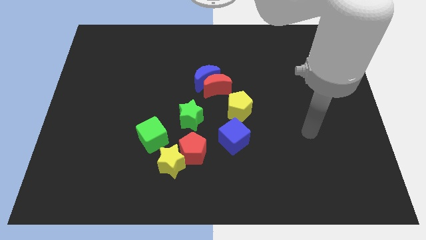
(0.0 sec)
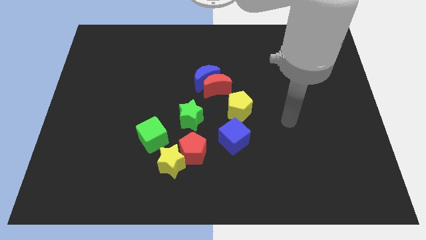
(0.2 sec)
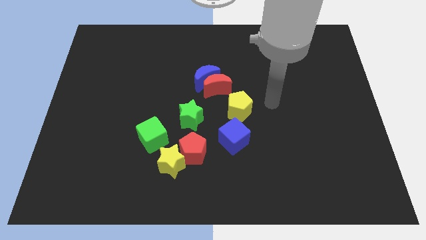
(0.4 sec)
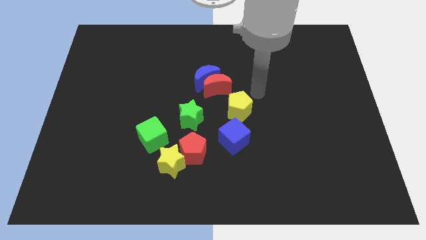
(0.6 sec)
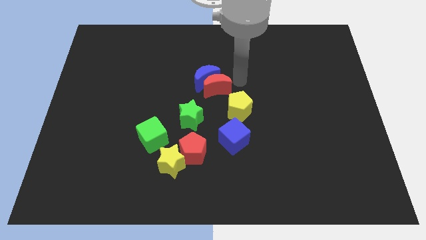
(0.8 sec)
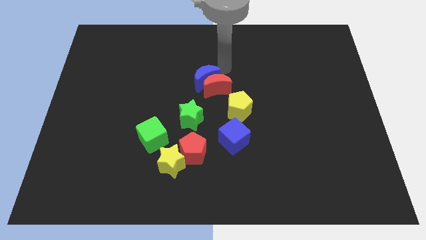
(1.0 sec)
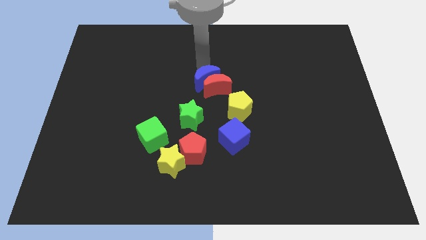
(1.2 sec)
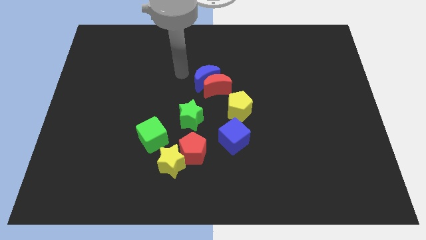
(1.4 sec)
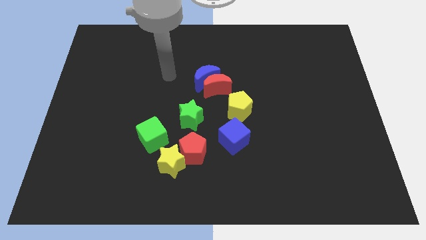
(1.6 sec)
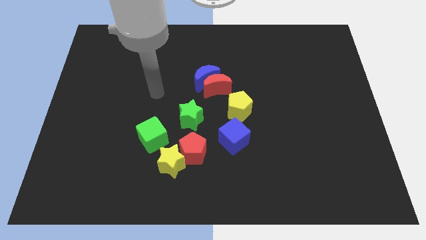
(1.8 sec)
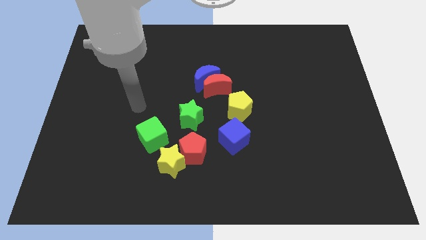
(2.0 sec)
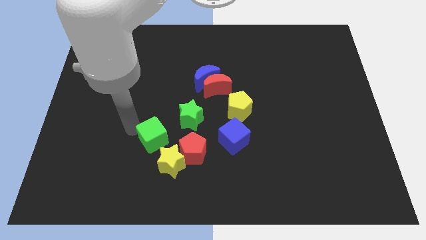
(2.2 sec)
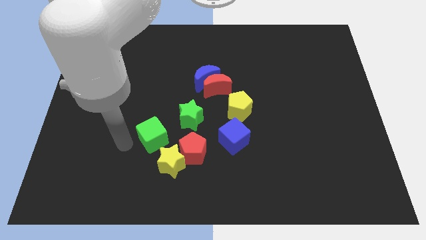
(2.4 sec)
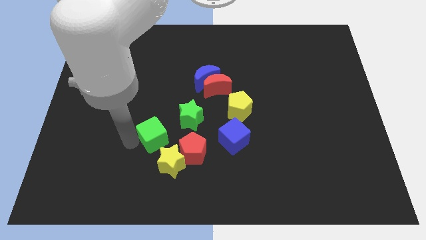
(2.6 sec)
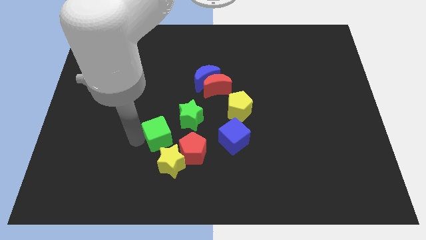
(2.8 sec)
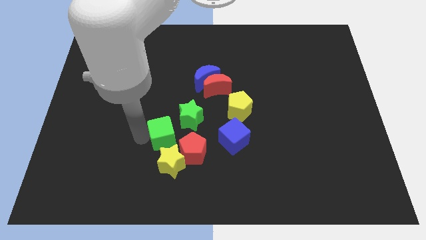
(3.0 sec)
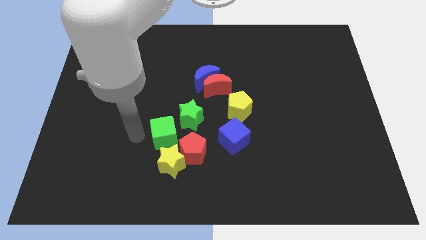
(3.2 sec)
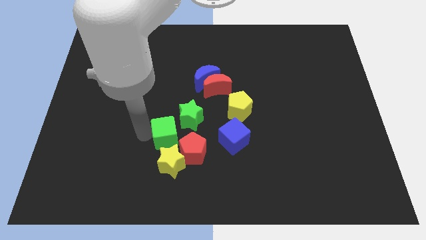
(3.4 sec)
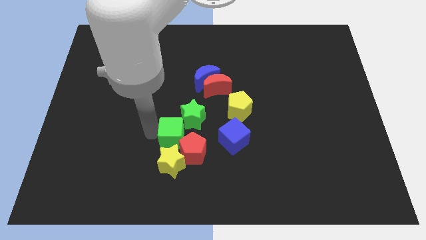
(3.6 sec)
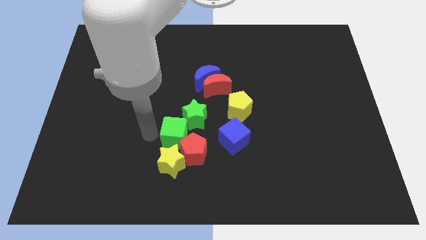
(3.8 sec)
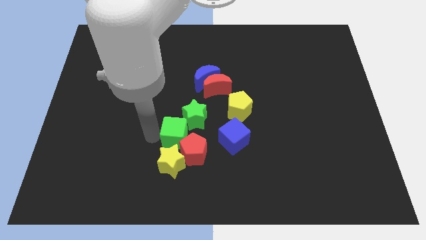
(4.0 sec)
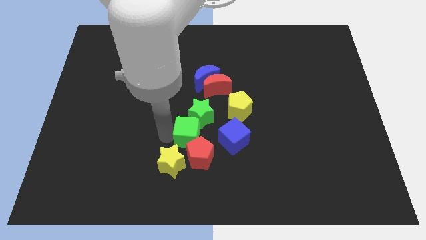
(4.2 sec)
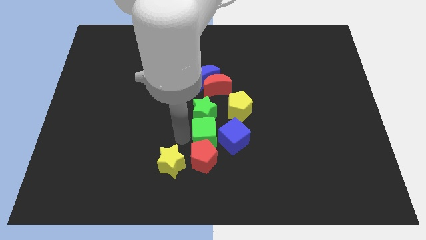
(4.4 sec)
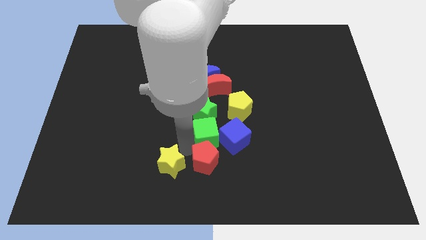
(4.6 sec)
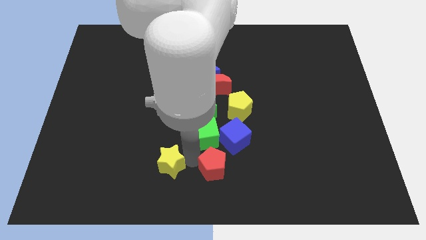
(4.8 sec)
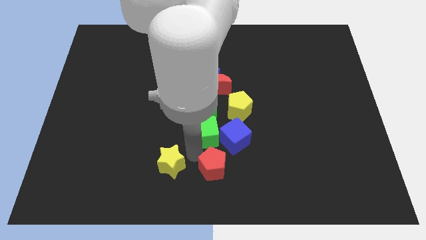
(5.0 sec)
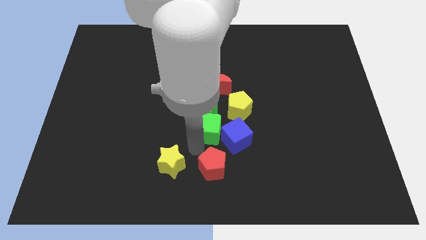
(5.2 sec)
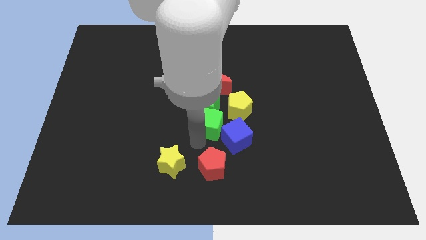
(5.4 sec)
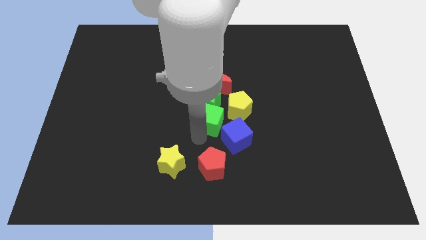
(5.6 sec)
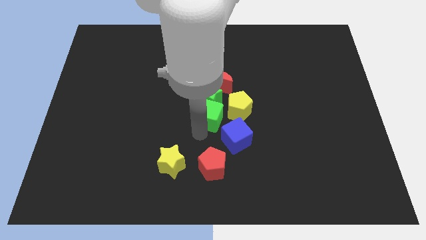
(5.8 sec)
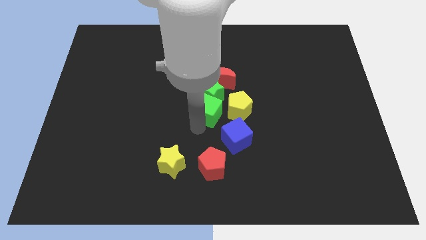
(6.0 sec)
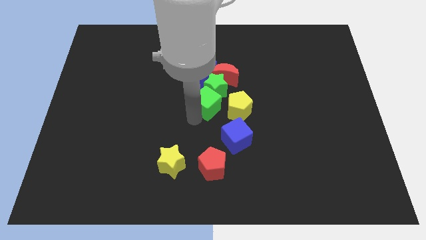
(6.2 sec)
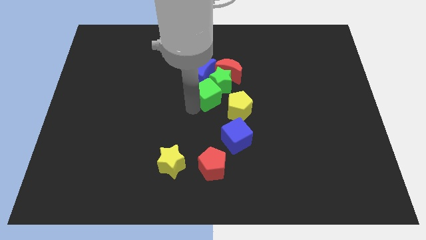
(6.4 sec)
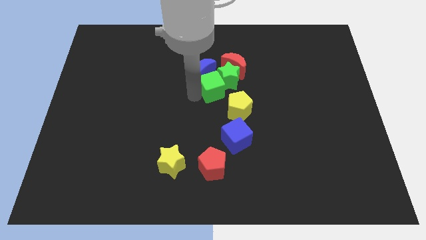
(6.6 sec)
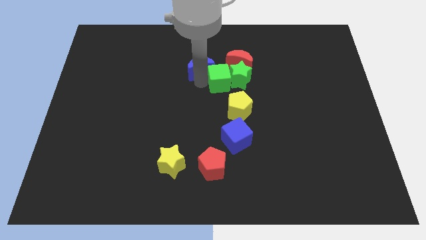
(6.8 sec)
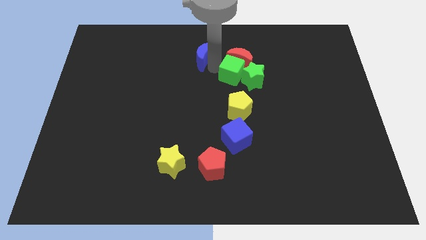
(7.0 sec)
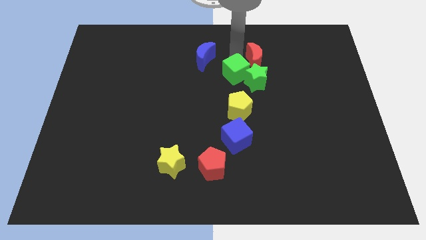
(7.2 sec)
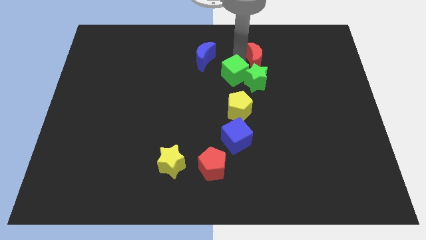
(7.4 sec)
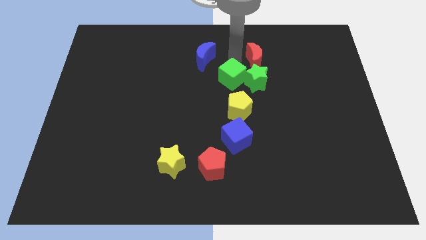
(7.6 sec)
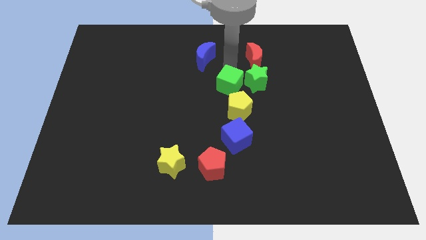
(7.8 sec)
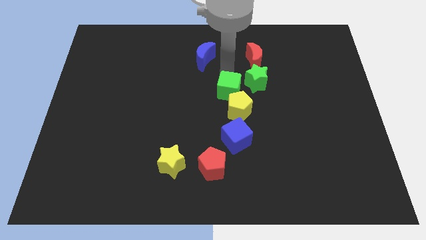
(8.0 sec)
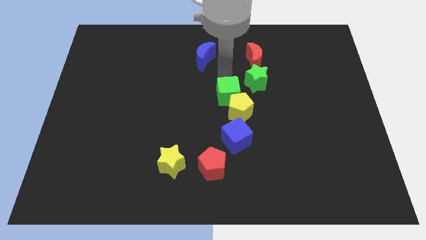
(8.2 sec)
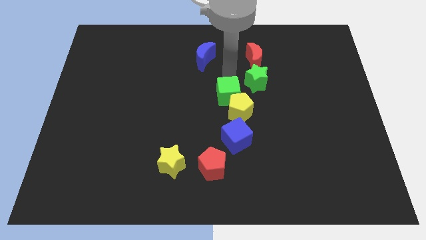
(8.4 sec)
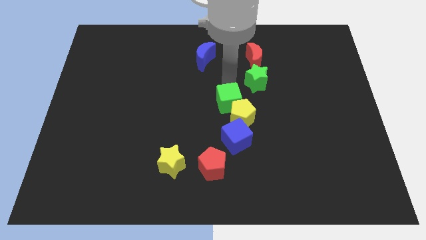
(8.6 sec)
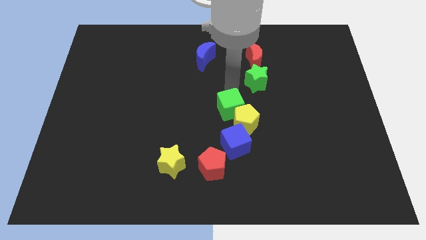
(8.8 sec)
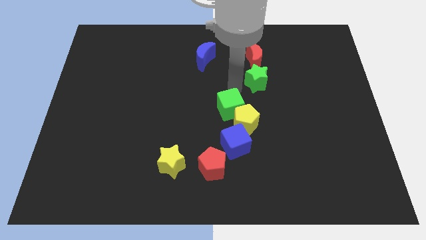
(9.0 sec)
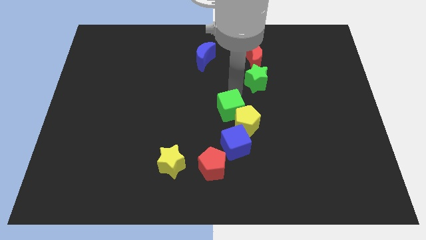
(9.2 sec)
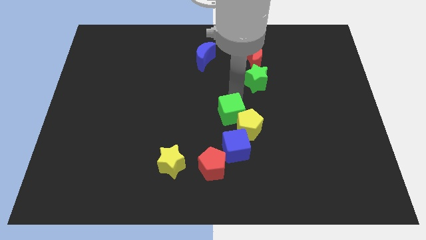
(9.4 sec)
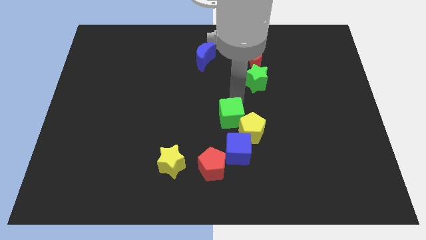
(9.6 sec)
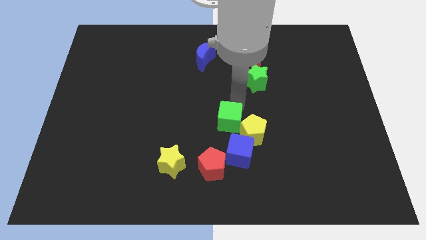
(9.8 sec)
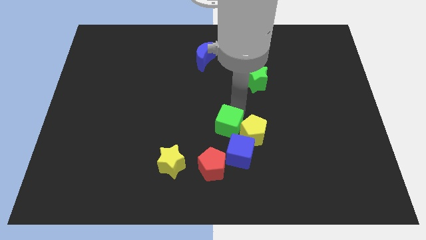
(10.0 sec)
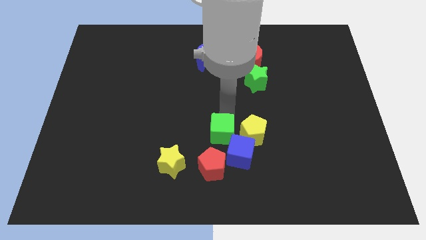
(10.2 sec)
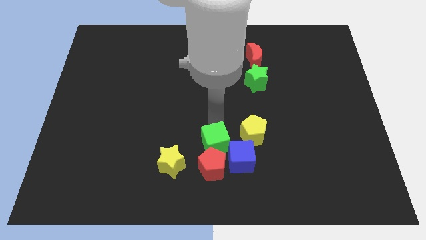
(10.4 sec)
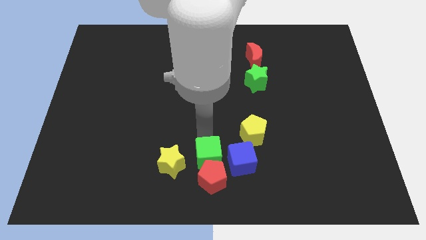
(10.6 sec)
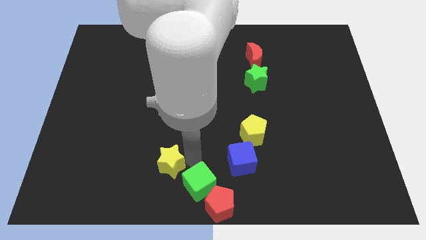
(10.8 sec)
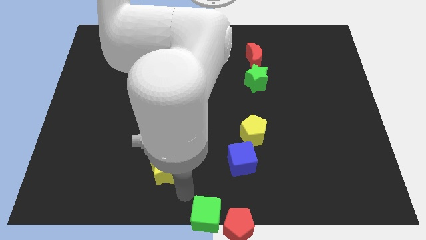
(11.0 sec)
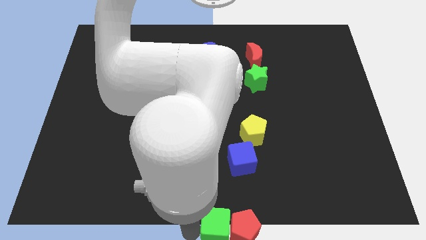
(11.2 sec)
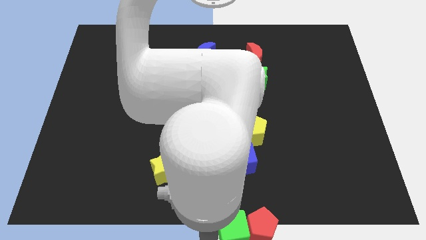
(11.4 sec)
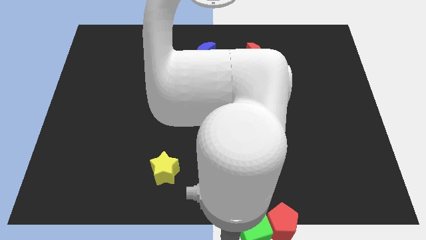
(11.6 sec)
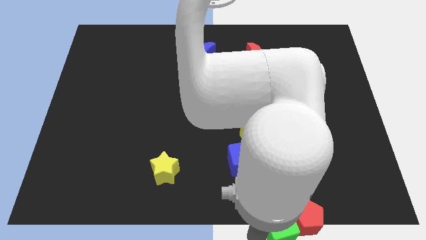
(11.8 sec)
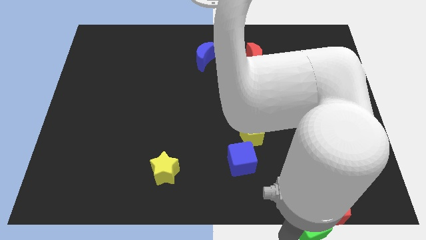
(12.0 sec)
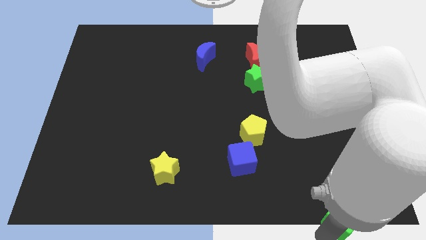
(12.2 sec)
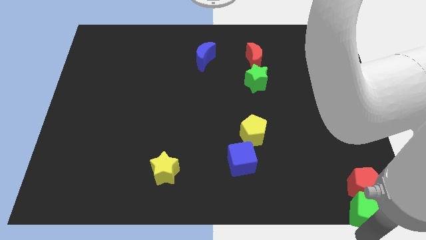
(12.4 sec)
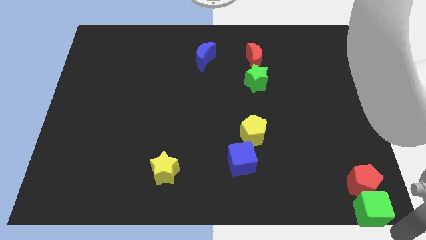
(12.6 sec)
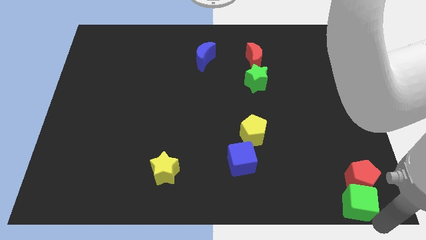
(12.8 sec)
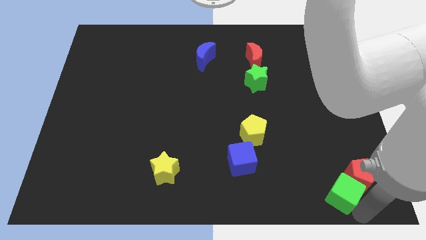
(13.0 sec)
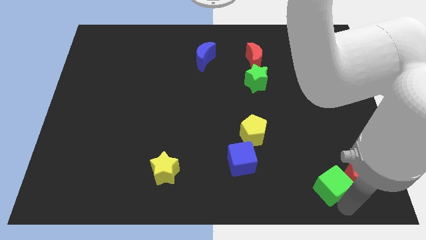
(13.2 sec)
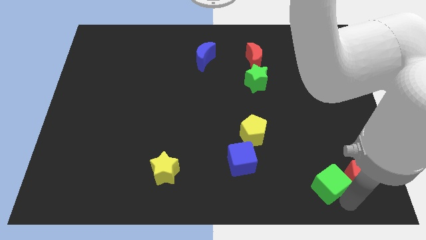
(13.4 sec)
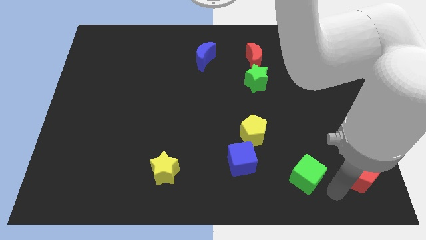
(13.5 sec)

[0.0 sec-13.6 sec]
move the green cube right of the blue cube

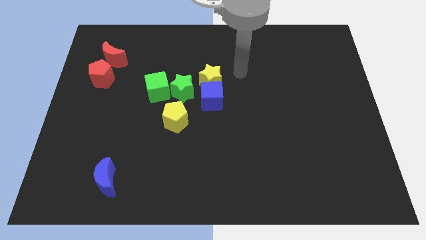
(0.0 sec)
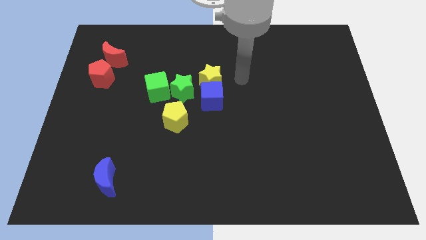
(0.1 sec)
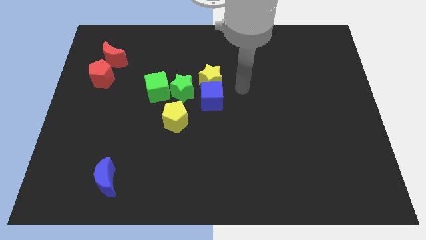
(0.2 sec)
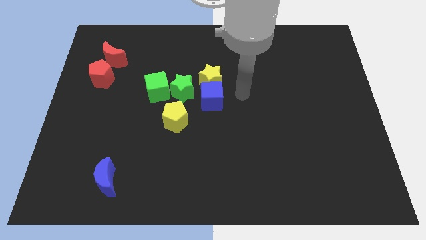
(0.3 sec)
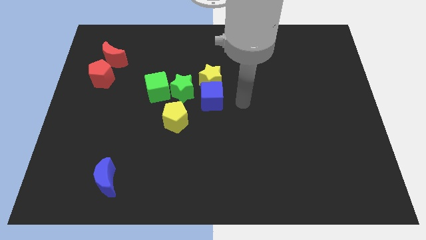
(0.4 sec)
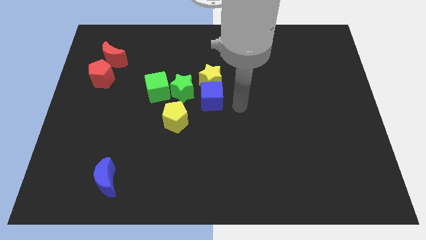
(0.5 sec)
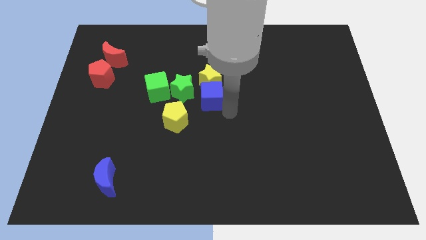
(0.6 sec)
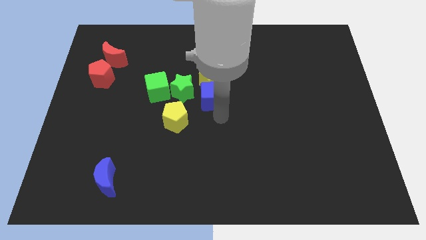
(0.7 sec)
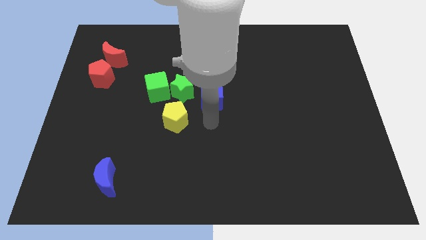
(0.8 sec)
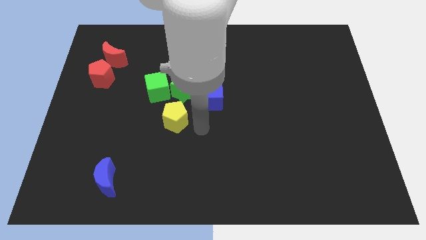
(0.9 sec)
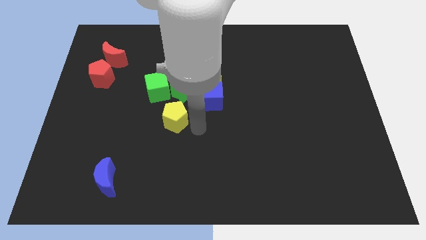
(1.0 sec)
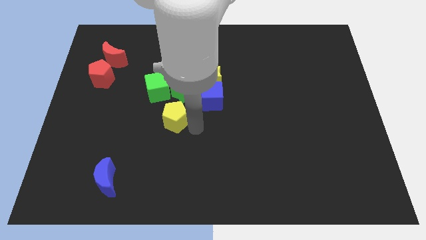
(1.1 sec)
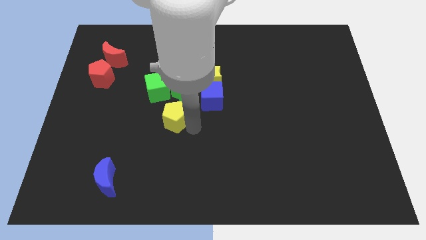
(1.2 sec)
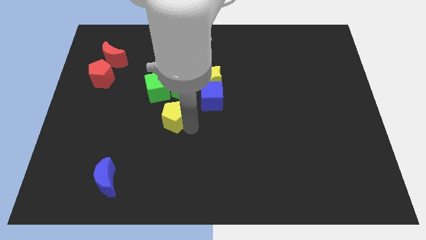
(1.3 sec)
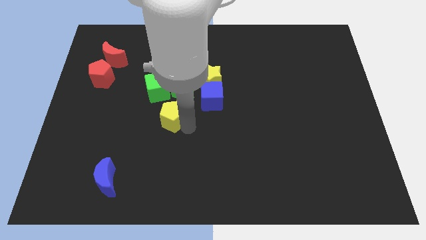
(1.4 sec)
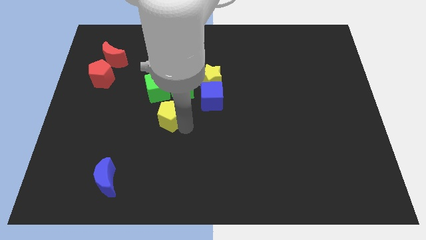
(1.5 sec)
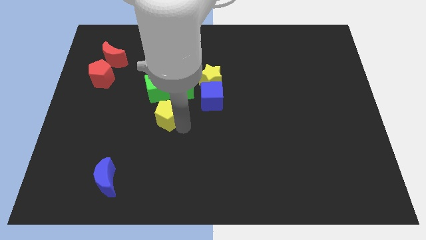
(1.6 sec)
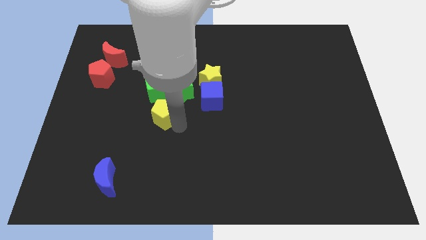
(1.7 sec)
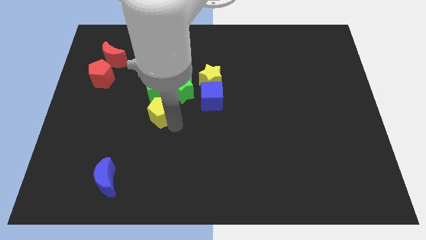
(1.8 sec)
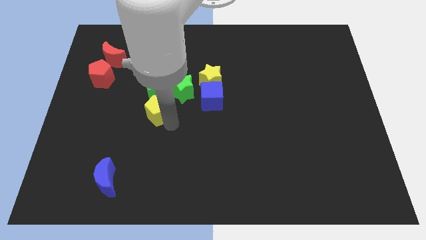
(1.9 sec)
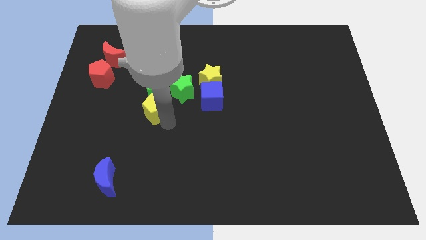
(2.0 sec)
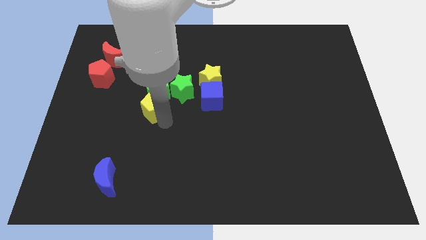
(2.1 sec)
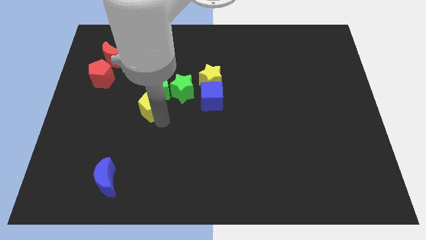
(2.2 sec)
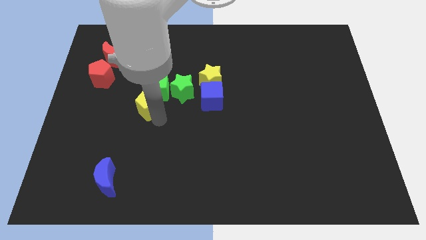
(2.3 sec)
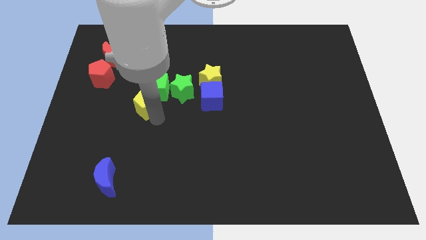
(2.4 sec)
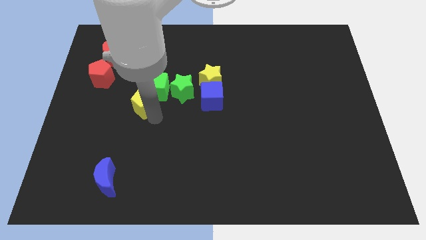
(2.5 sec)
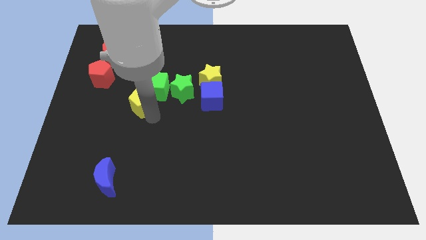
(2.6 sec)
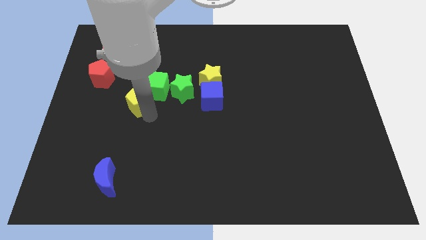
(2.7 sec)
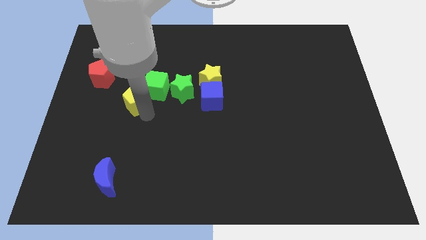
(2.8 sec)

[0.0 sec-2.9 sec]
slide the yellow pentagon to the bottom right side of the red pentagon
